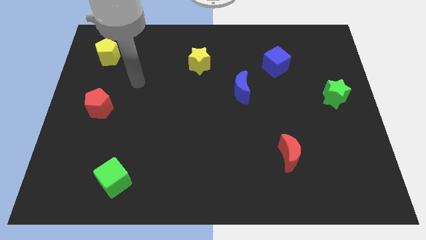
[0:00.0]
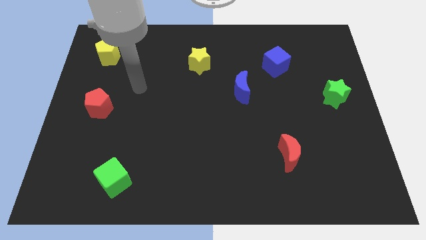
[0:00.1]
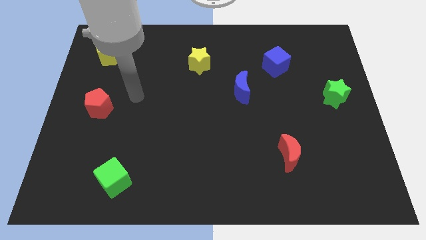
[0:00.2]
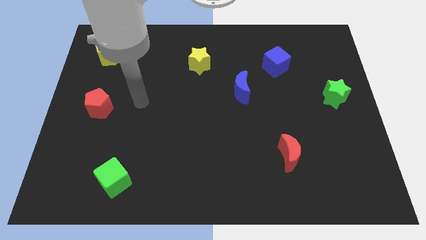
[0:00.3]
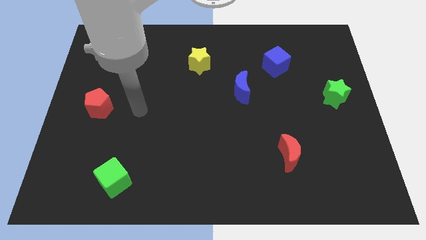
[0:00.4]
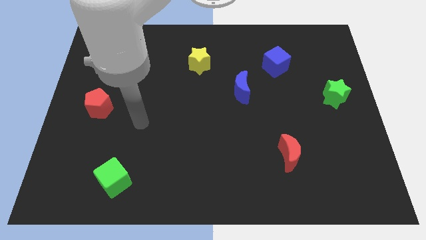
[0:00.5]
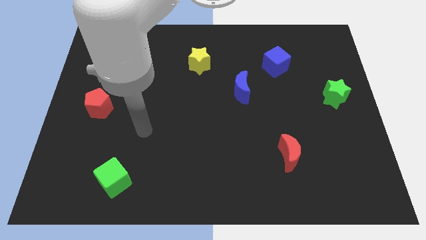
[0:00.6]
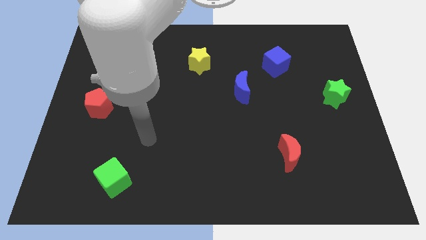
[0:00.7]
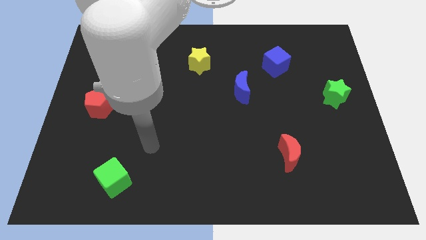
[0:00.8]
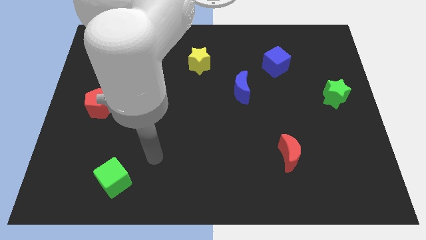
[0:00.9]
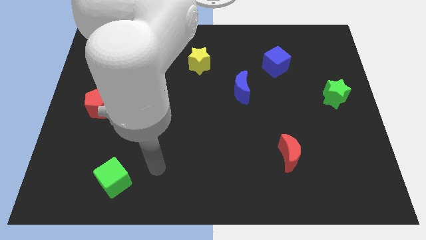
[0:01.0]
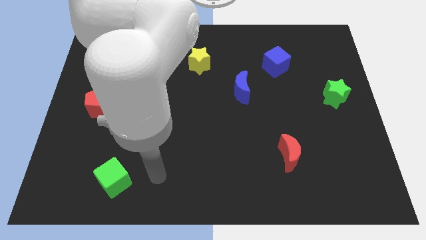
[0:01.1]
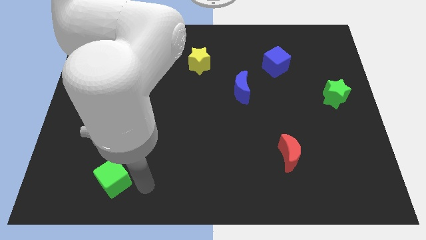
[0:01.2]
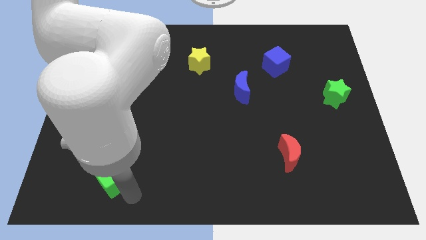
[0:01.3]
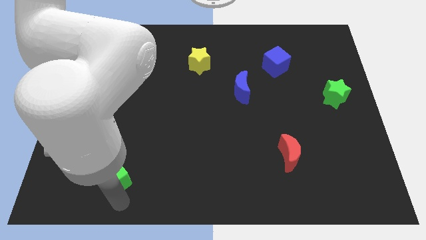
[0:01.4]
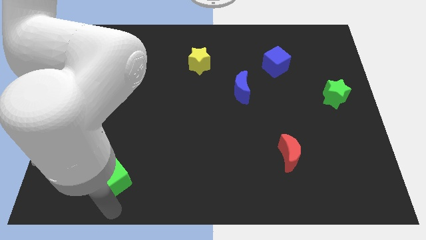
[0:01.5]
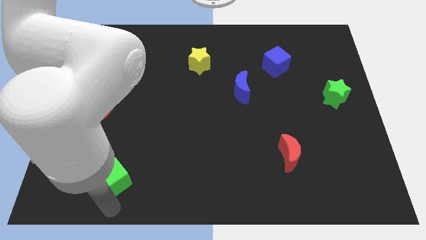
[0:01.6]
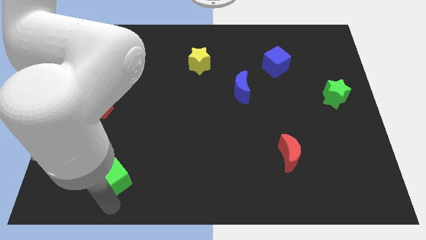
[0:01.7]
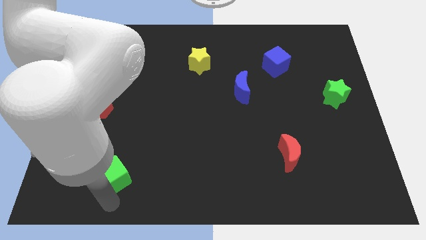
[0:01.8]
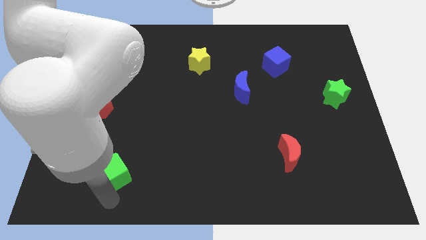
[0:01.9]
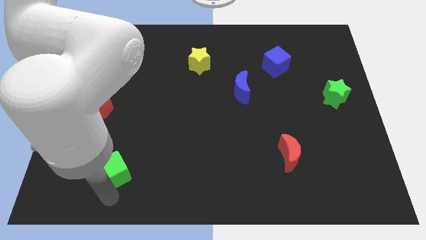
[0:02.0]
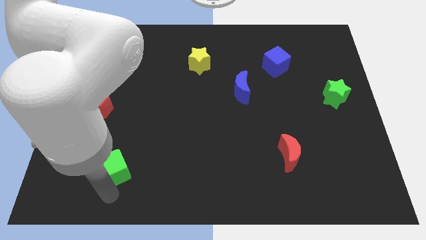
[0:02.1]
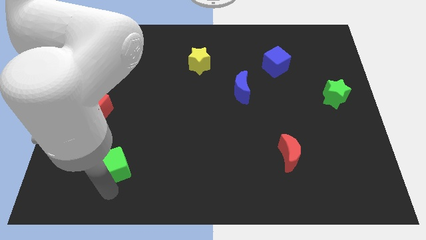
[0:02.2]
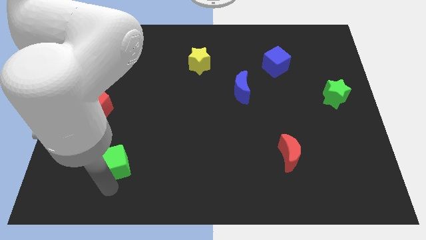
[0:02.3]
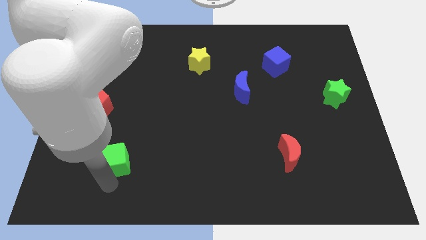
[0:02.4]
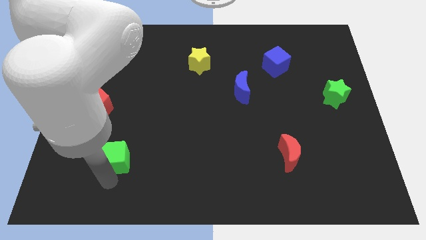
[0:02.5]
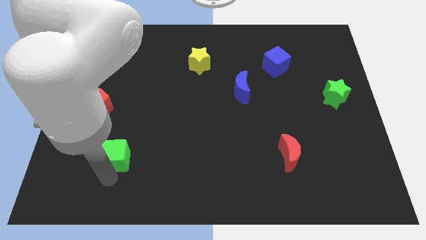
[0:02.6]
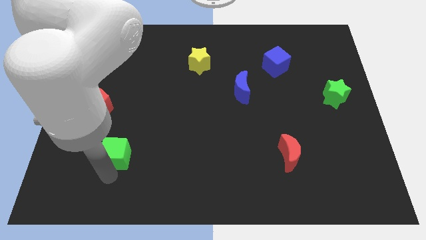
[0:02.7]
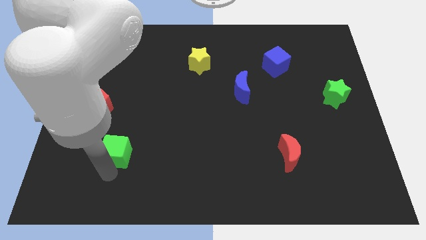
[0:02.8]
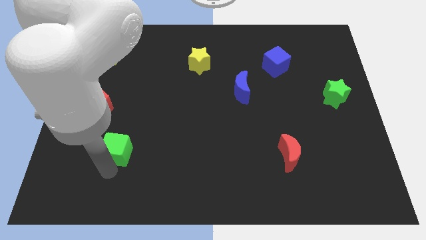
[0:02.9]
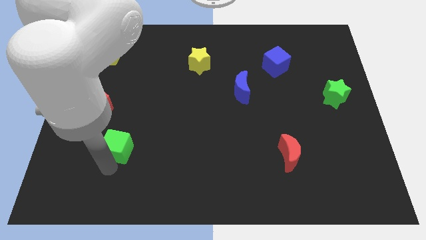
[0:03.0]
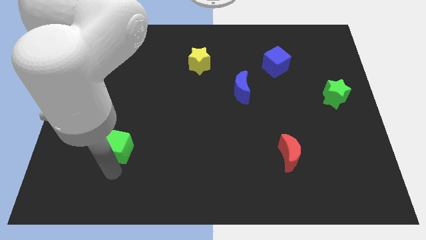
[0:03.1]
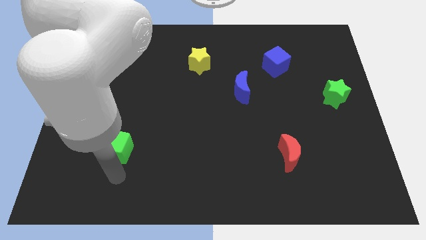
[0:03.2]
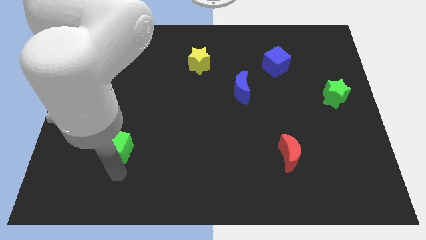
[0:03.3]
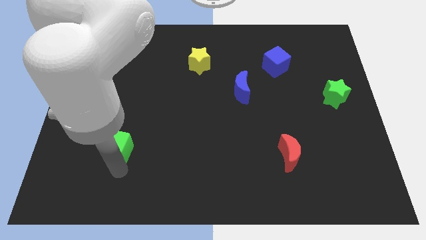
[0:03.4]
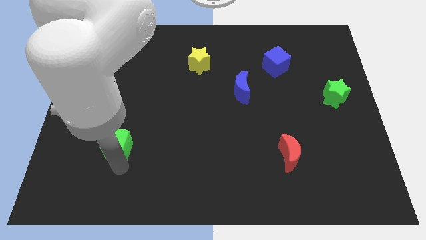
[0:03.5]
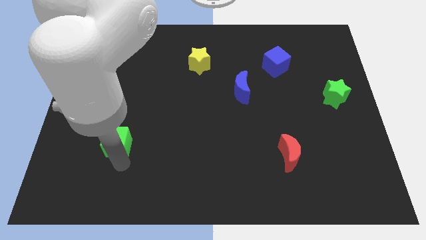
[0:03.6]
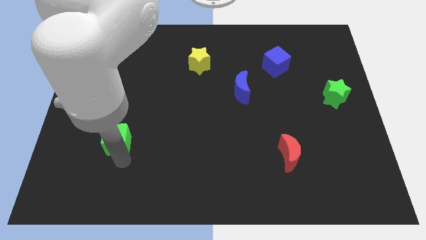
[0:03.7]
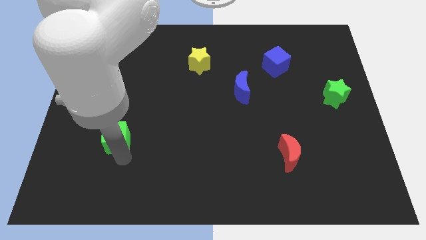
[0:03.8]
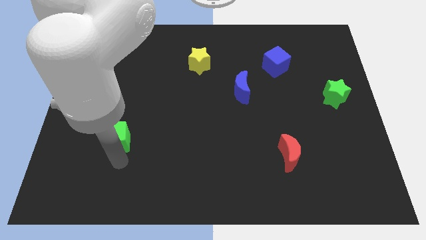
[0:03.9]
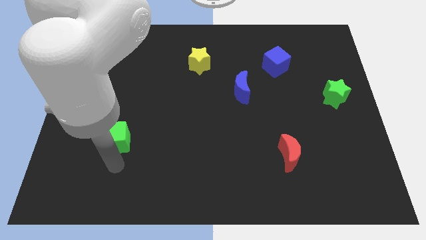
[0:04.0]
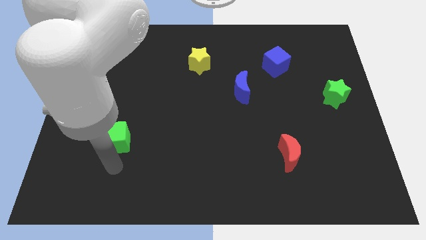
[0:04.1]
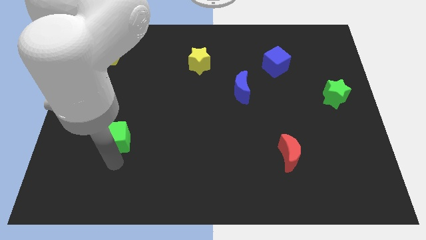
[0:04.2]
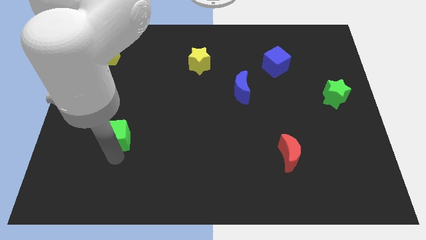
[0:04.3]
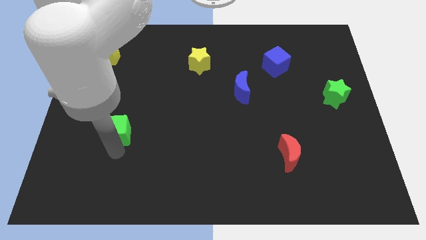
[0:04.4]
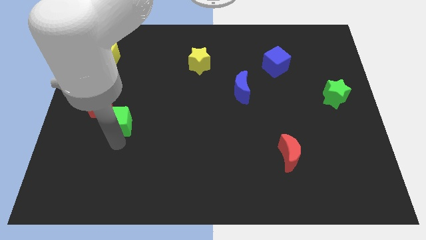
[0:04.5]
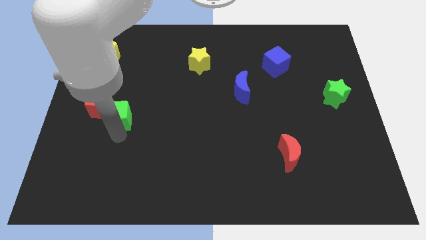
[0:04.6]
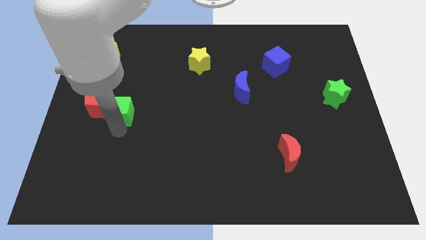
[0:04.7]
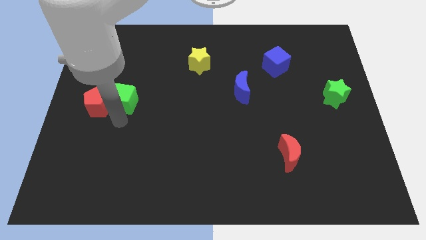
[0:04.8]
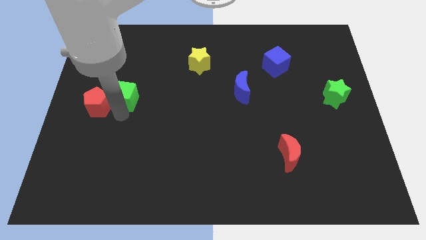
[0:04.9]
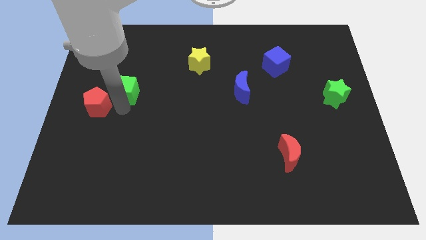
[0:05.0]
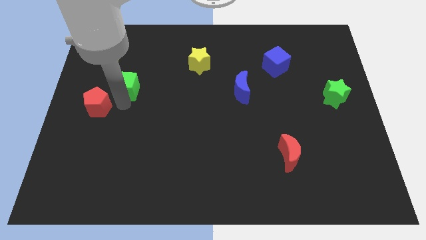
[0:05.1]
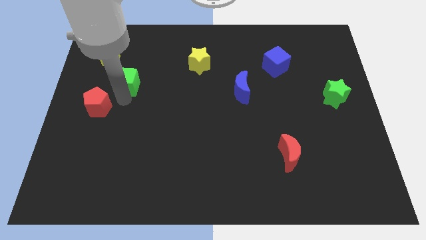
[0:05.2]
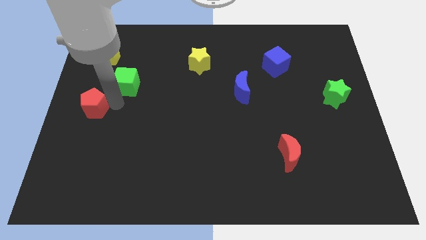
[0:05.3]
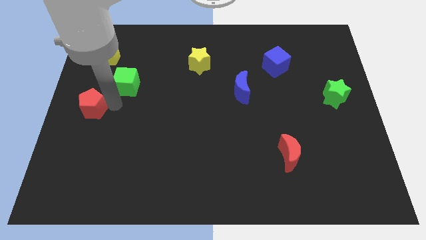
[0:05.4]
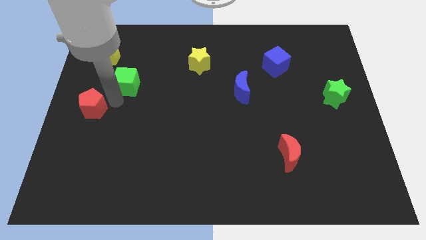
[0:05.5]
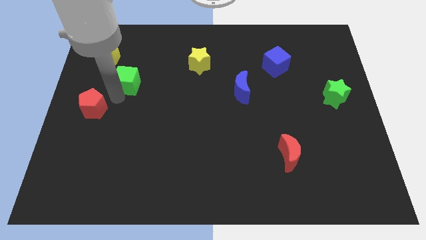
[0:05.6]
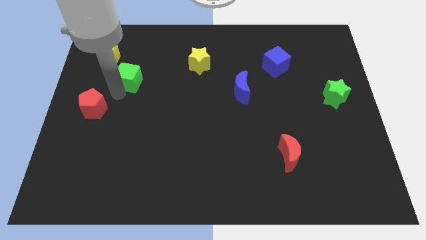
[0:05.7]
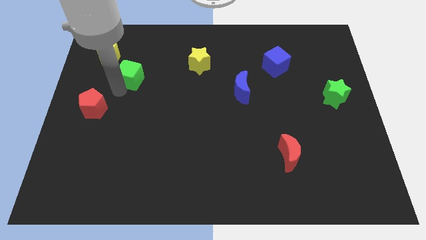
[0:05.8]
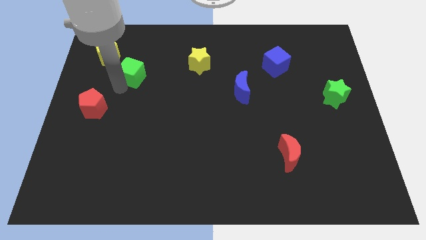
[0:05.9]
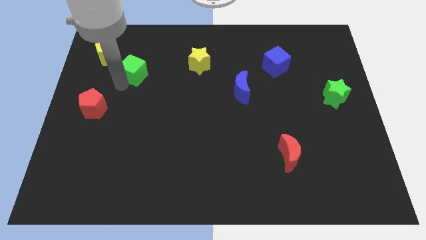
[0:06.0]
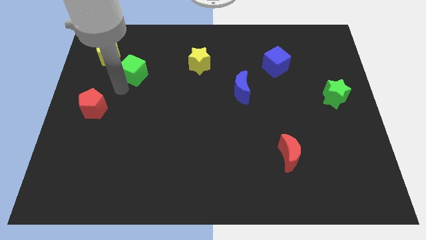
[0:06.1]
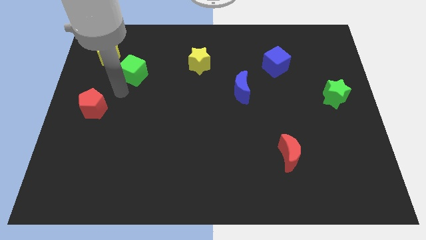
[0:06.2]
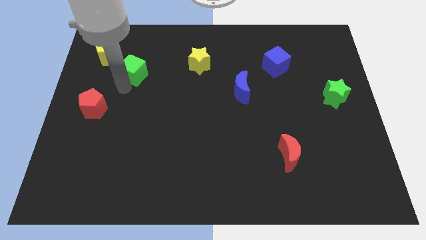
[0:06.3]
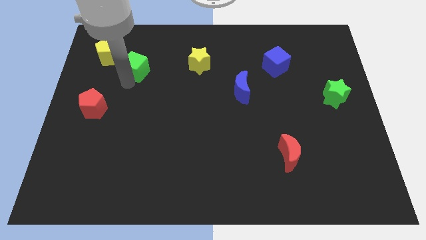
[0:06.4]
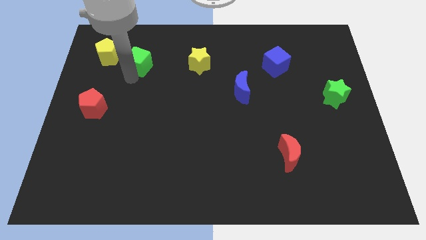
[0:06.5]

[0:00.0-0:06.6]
put the green cube right of the yellow pentagon

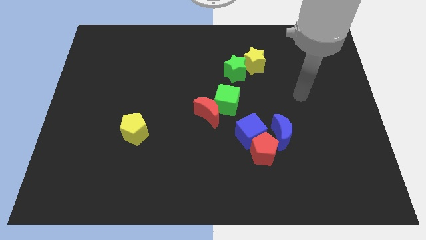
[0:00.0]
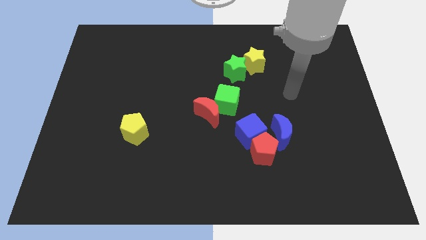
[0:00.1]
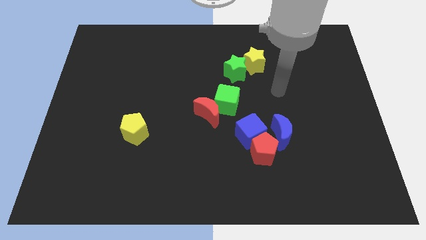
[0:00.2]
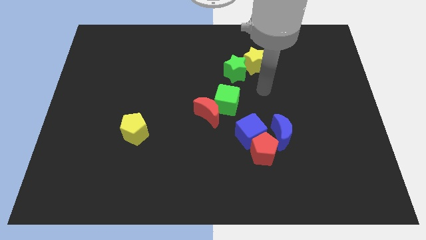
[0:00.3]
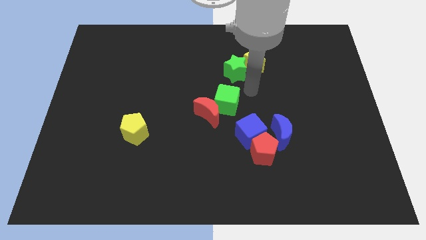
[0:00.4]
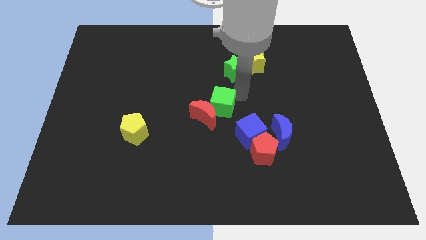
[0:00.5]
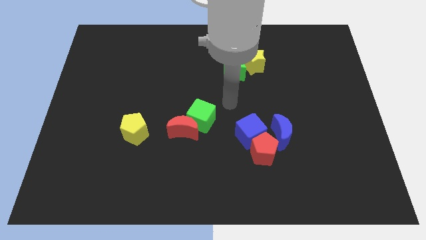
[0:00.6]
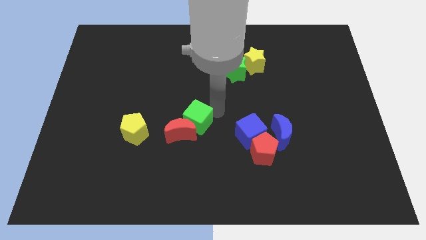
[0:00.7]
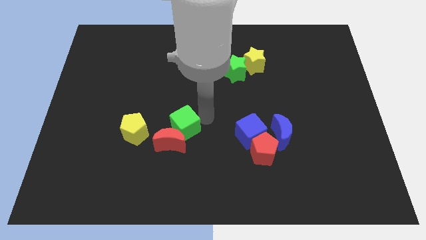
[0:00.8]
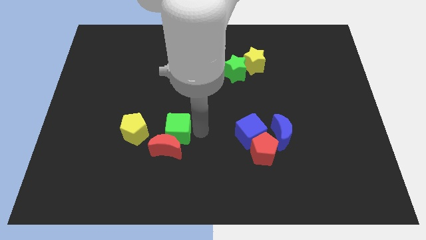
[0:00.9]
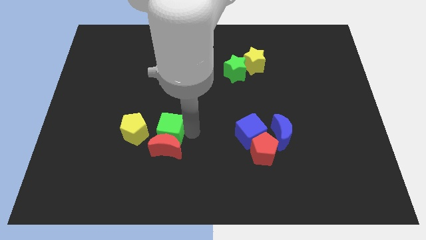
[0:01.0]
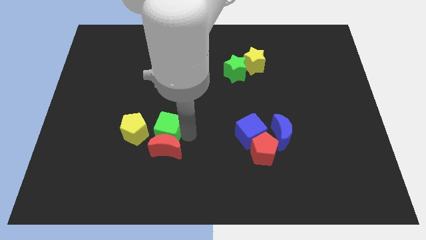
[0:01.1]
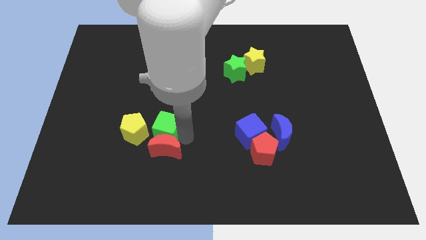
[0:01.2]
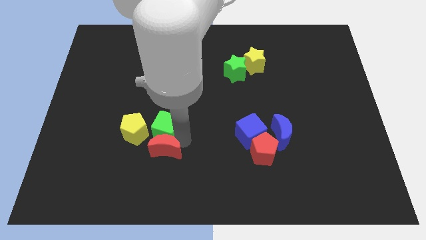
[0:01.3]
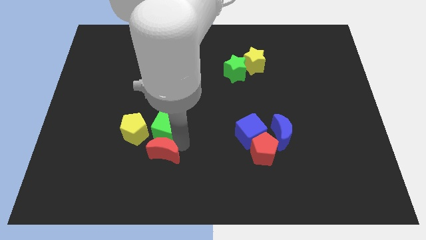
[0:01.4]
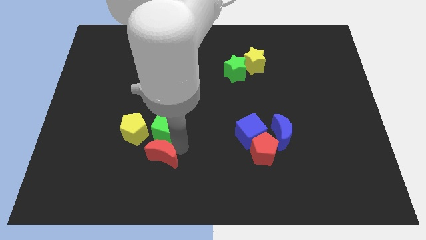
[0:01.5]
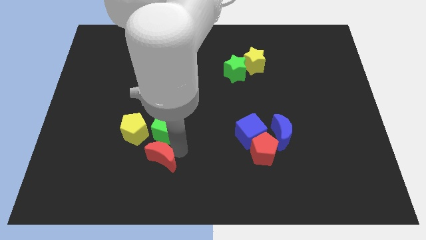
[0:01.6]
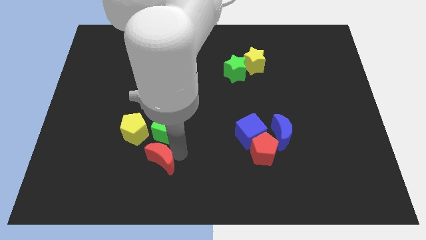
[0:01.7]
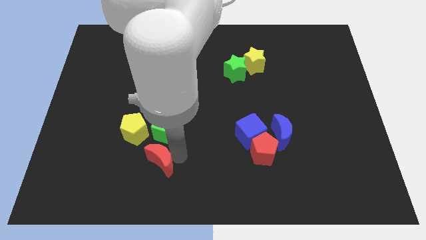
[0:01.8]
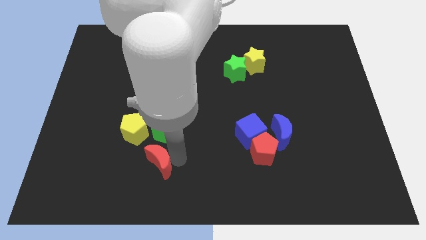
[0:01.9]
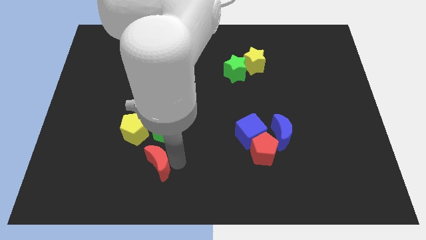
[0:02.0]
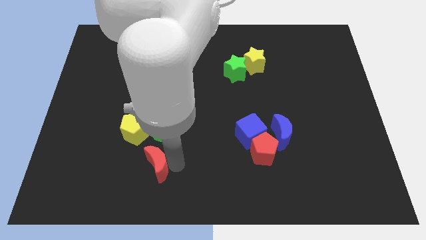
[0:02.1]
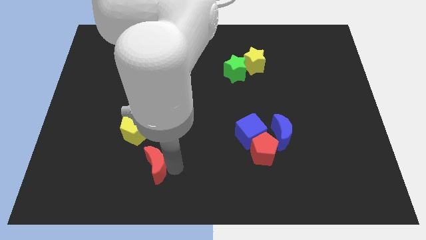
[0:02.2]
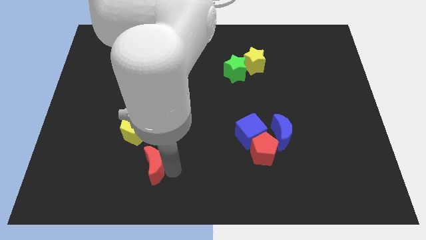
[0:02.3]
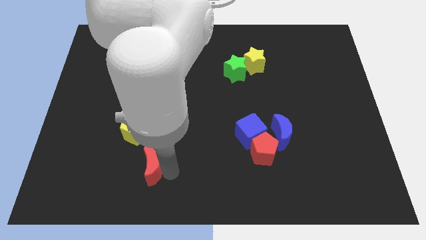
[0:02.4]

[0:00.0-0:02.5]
slide the red moon below the yellow pentagon
